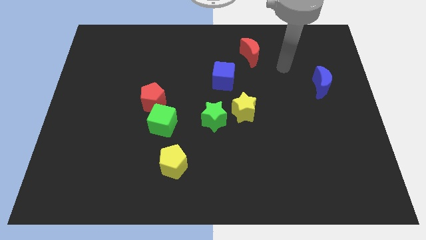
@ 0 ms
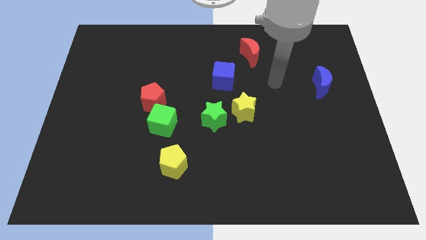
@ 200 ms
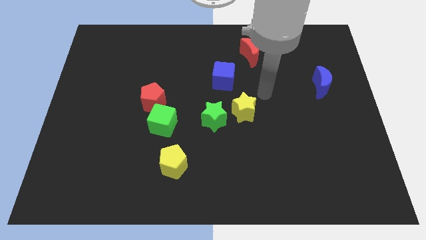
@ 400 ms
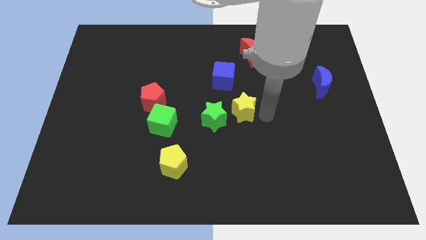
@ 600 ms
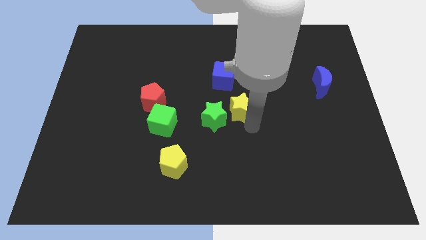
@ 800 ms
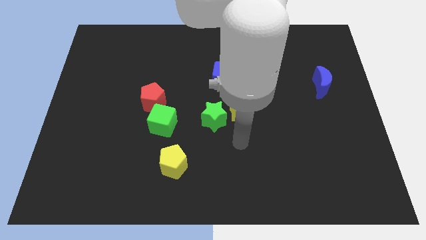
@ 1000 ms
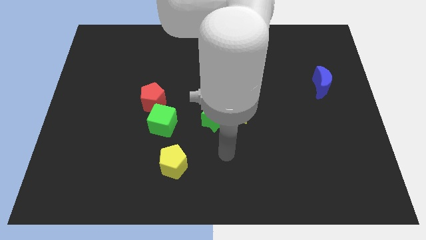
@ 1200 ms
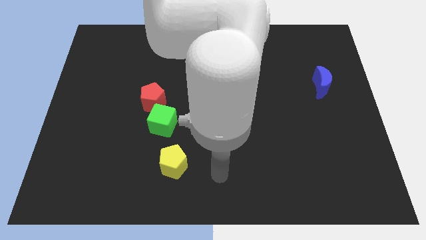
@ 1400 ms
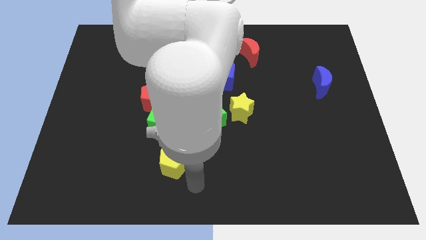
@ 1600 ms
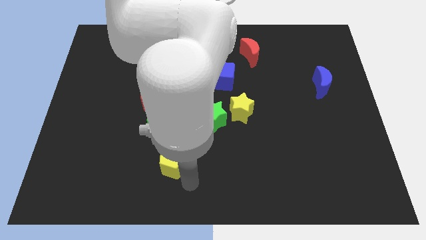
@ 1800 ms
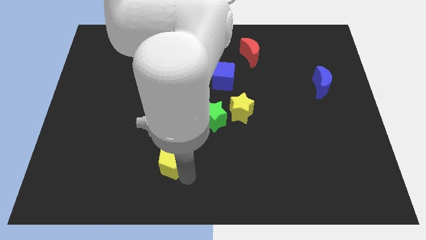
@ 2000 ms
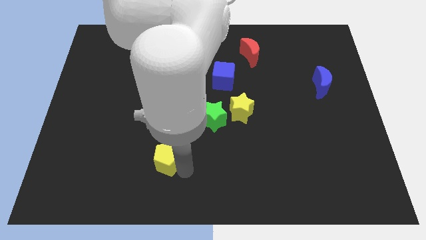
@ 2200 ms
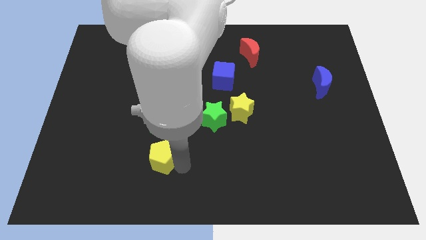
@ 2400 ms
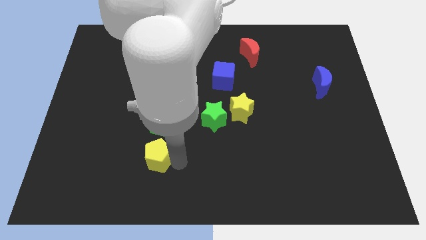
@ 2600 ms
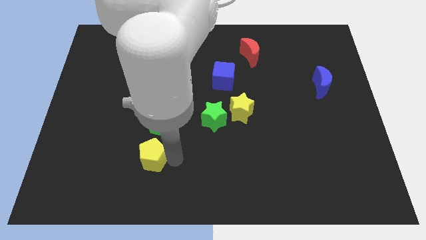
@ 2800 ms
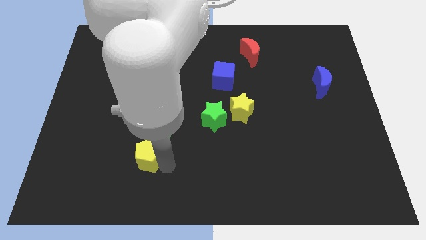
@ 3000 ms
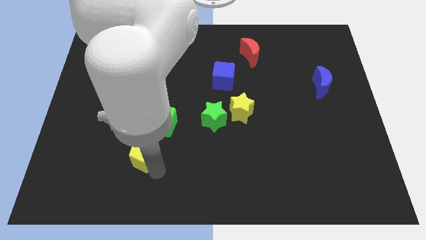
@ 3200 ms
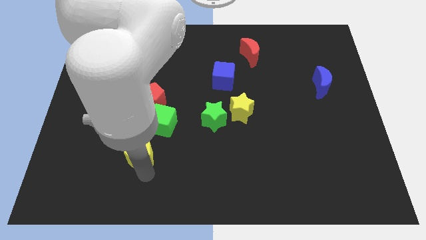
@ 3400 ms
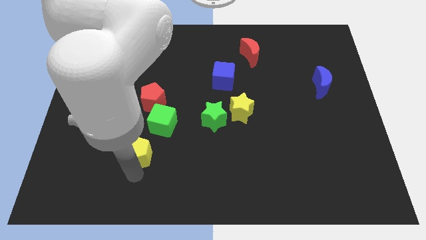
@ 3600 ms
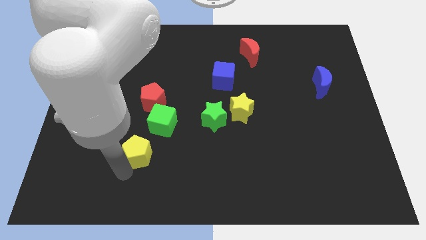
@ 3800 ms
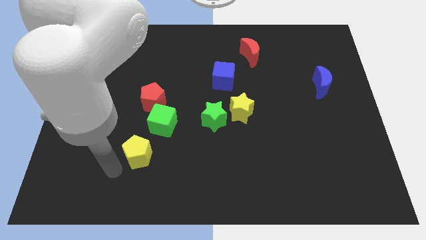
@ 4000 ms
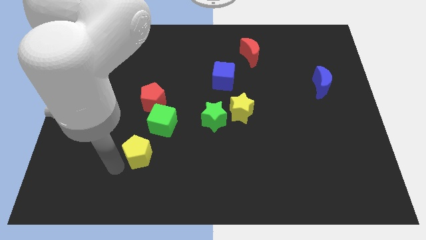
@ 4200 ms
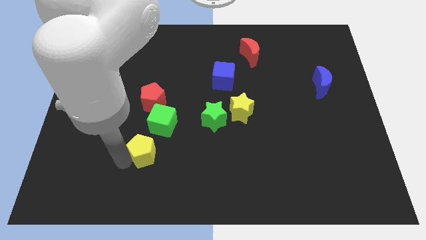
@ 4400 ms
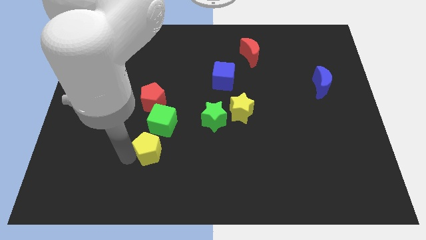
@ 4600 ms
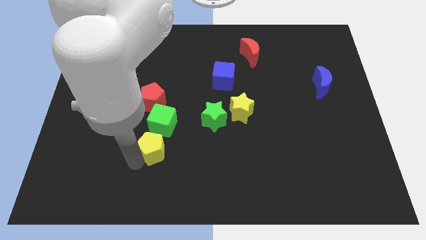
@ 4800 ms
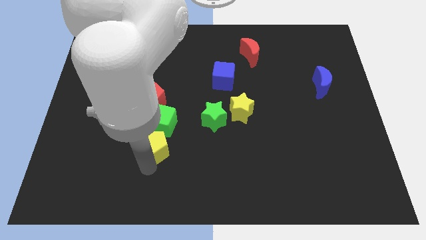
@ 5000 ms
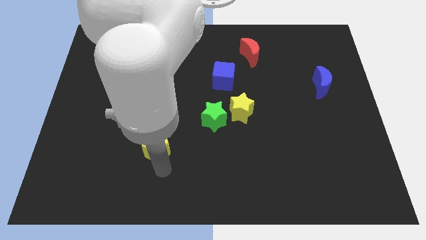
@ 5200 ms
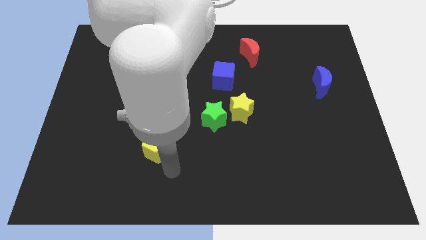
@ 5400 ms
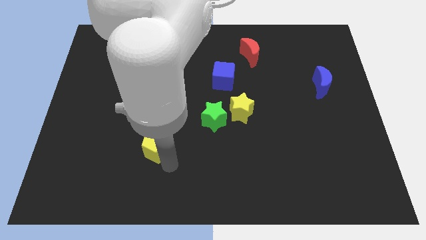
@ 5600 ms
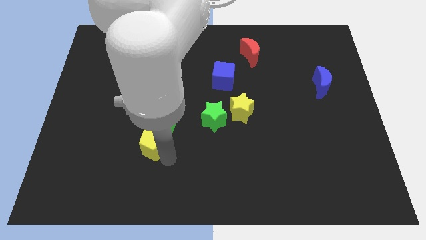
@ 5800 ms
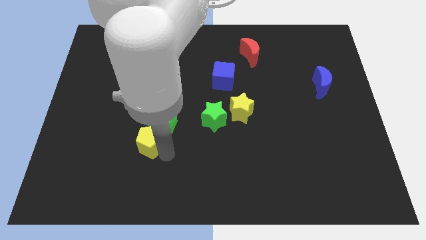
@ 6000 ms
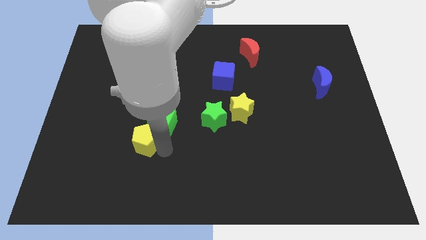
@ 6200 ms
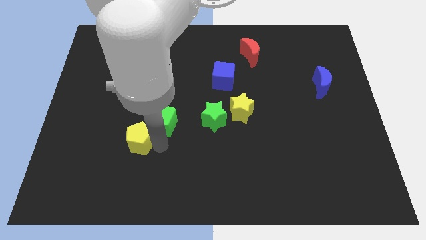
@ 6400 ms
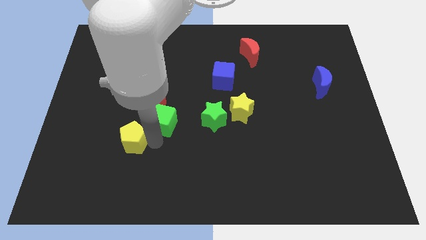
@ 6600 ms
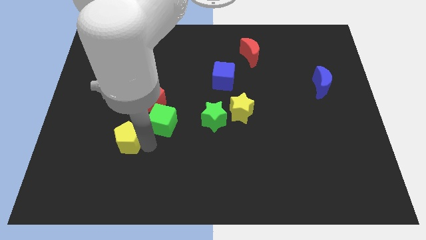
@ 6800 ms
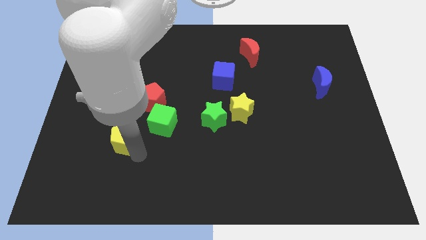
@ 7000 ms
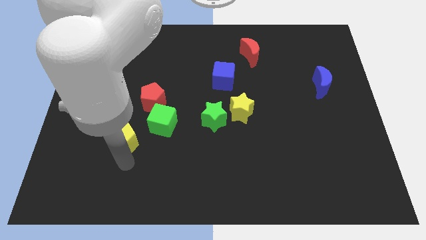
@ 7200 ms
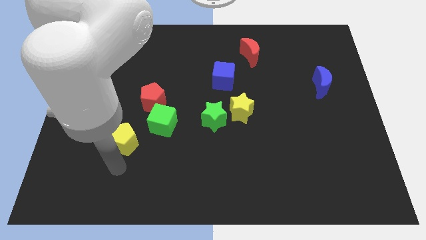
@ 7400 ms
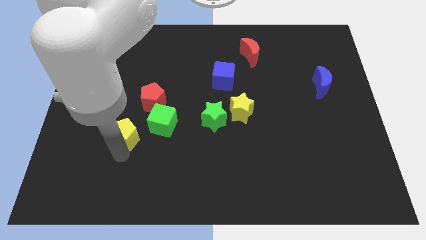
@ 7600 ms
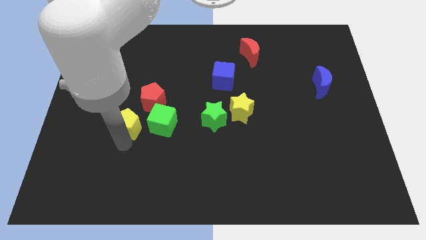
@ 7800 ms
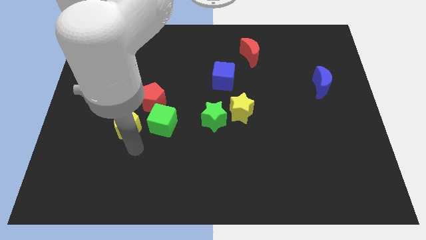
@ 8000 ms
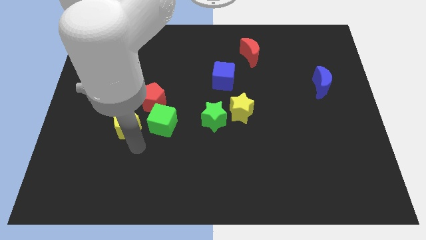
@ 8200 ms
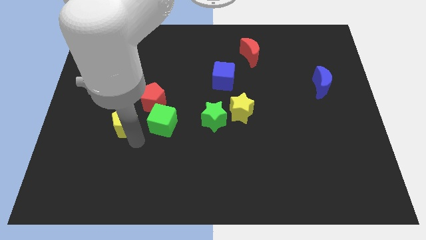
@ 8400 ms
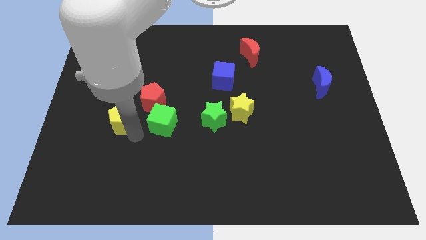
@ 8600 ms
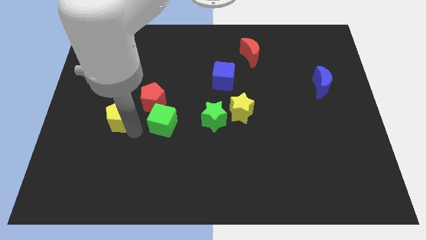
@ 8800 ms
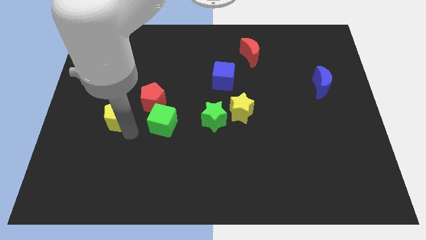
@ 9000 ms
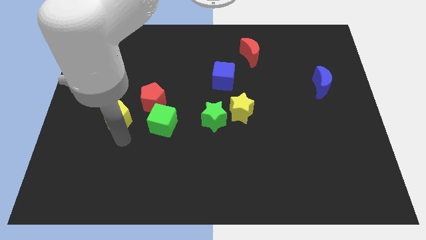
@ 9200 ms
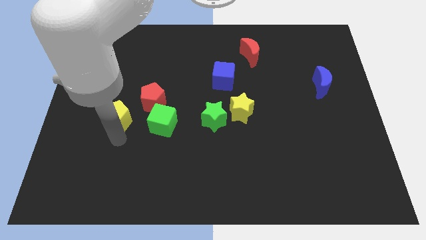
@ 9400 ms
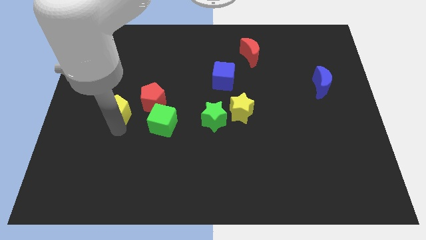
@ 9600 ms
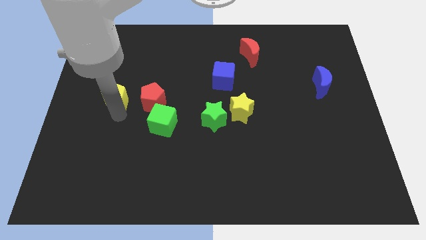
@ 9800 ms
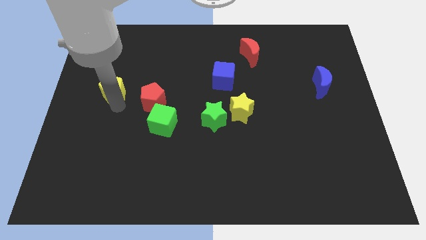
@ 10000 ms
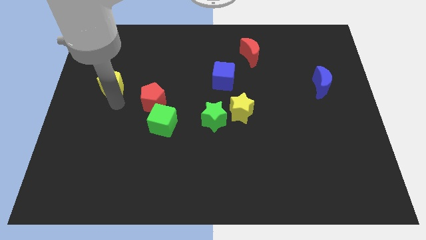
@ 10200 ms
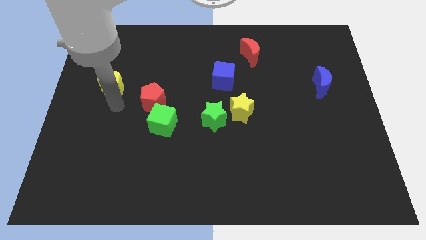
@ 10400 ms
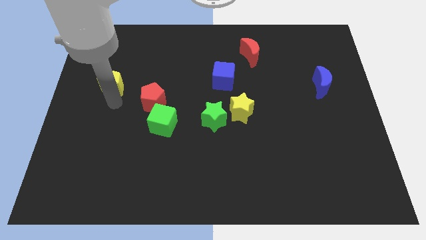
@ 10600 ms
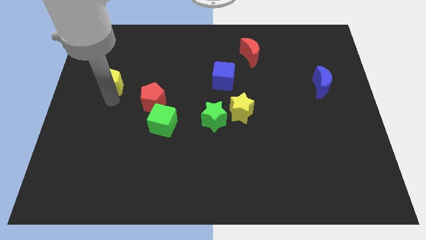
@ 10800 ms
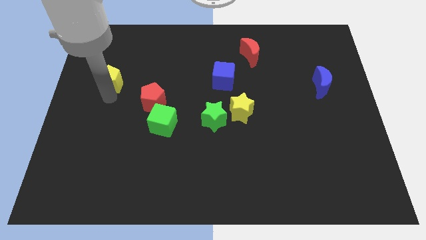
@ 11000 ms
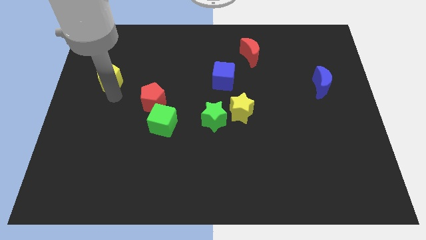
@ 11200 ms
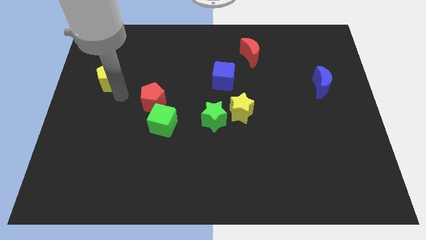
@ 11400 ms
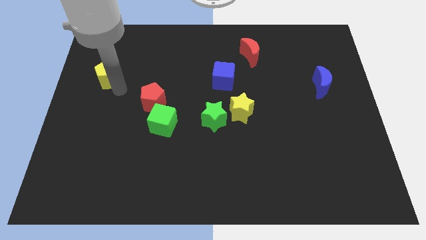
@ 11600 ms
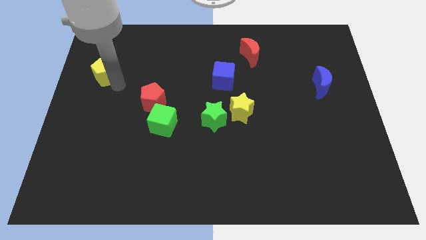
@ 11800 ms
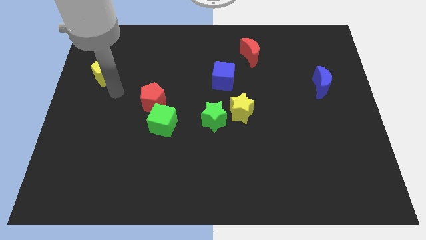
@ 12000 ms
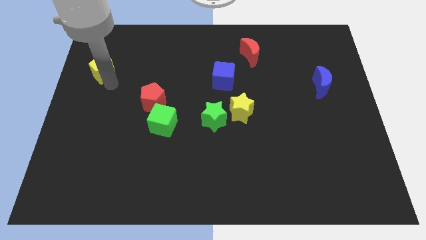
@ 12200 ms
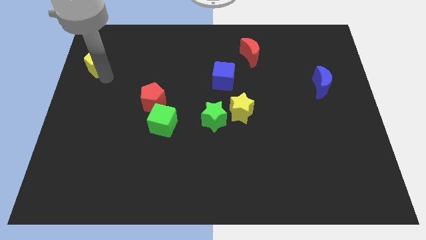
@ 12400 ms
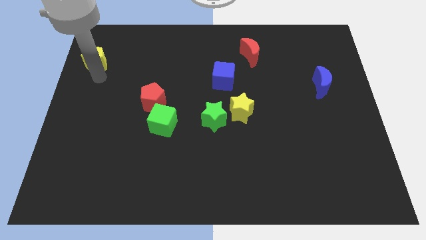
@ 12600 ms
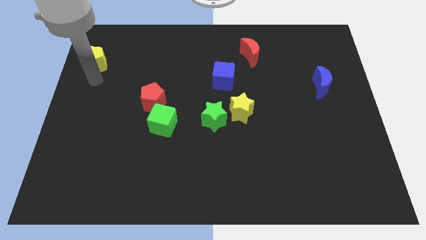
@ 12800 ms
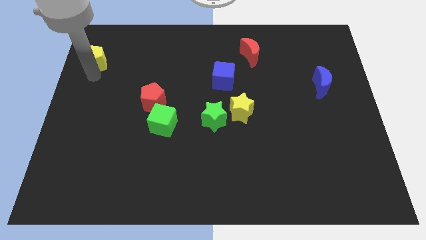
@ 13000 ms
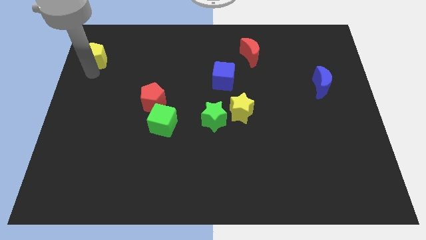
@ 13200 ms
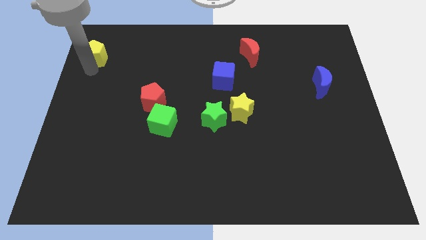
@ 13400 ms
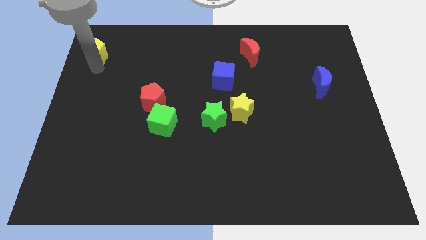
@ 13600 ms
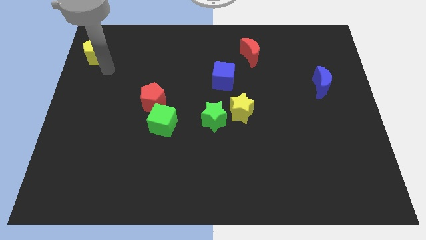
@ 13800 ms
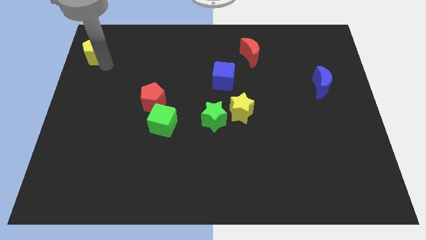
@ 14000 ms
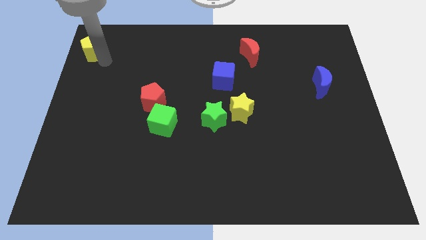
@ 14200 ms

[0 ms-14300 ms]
slide the yellow pentagon to the upper left corner

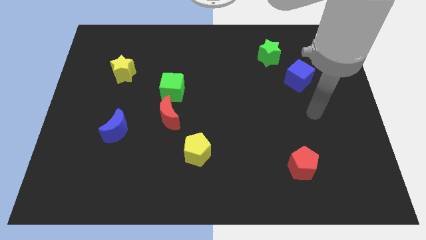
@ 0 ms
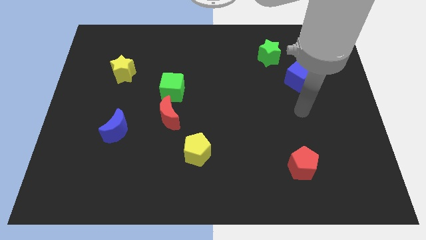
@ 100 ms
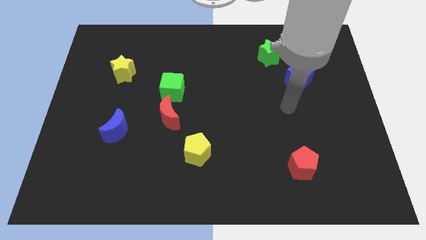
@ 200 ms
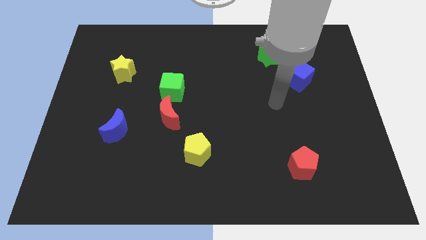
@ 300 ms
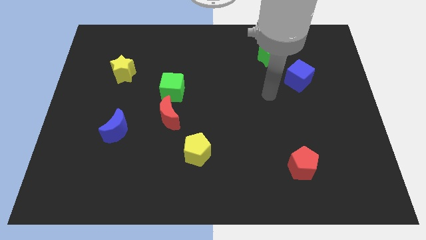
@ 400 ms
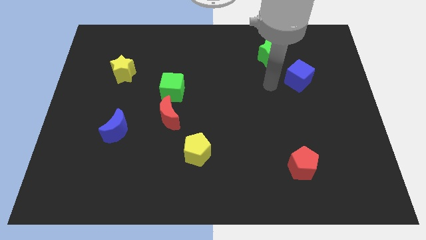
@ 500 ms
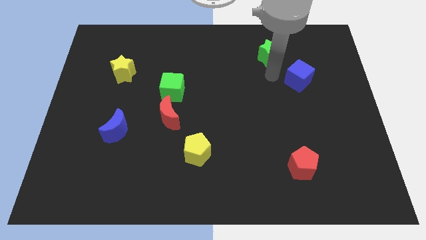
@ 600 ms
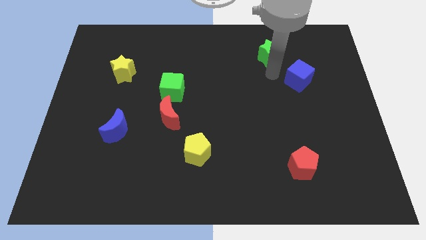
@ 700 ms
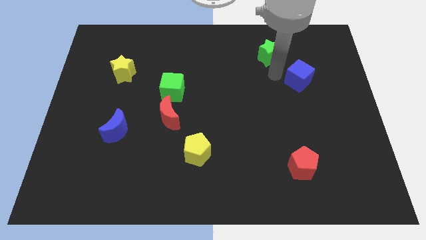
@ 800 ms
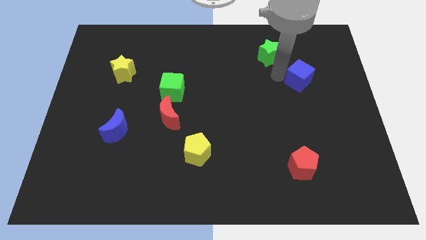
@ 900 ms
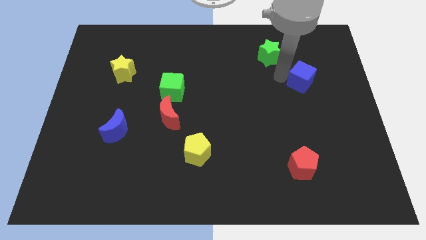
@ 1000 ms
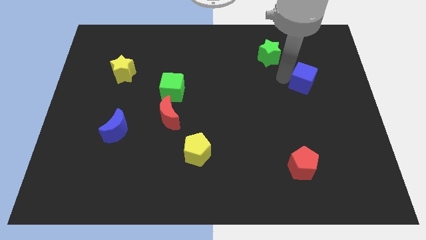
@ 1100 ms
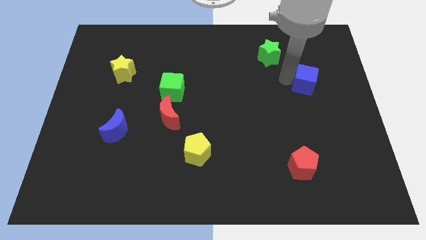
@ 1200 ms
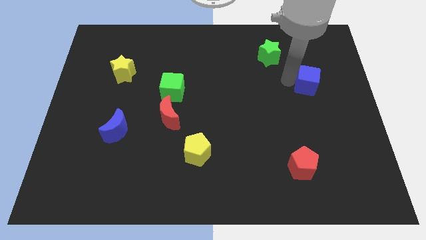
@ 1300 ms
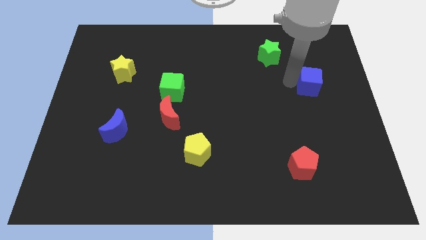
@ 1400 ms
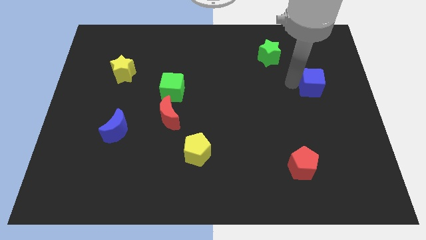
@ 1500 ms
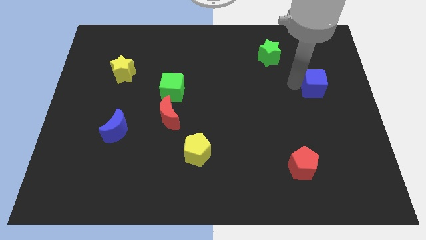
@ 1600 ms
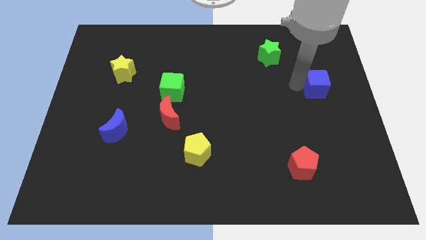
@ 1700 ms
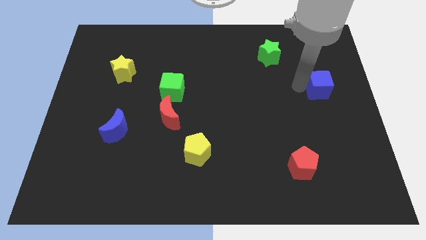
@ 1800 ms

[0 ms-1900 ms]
push the blue cube to the center right
